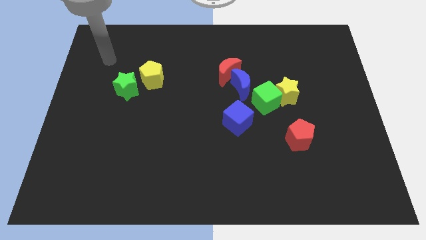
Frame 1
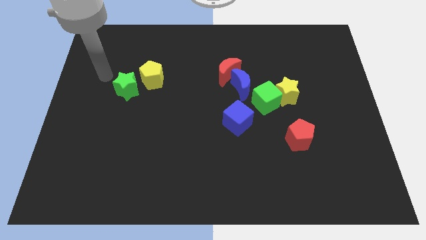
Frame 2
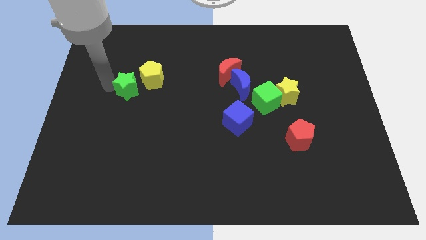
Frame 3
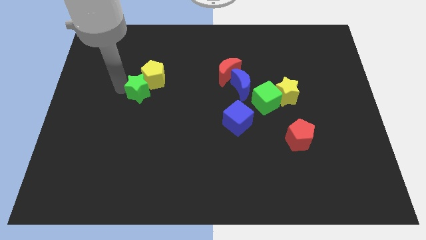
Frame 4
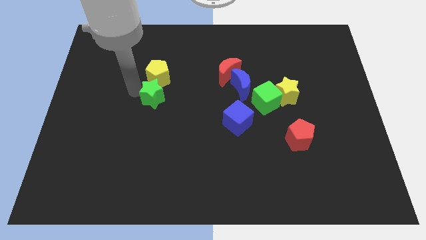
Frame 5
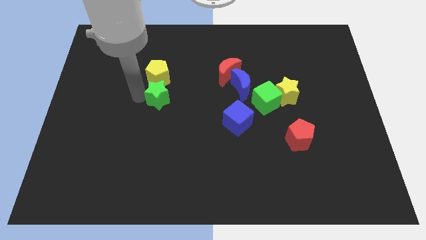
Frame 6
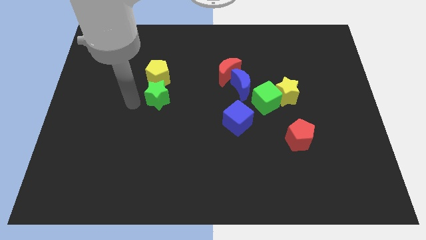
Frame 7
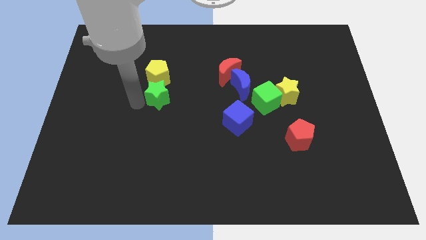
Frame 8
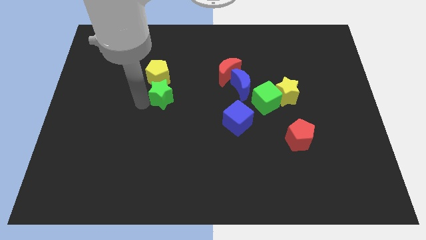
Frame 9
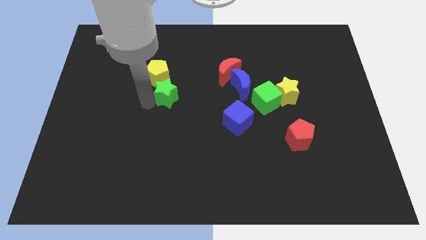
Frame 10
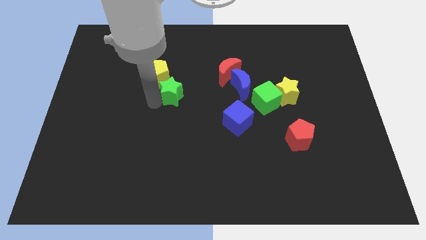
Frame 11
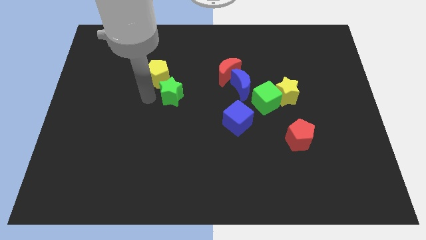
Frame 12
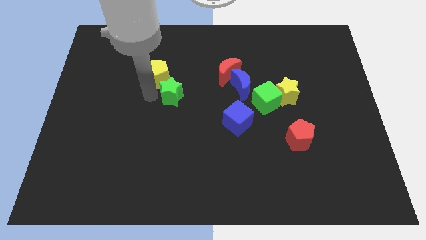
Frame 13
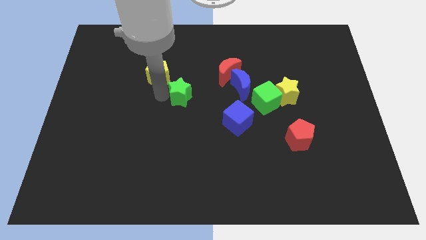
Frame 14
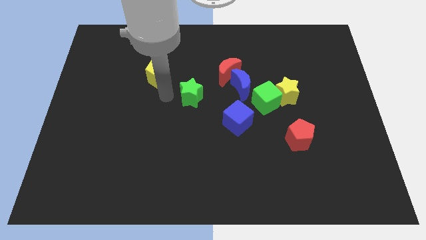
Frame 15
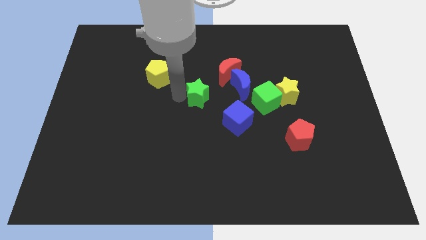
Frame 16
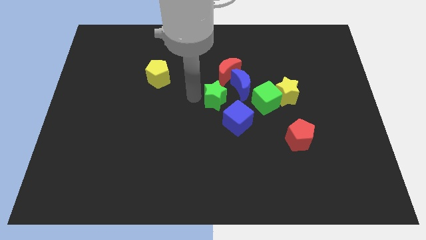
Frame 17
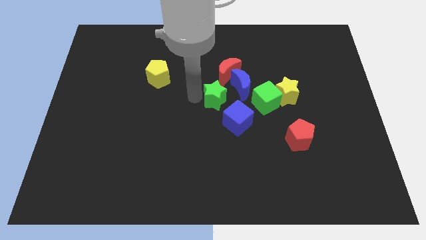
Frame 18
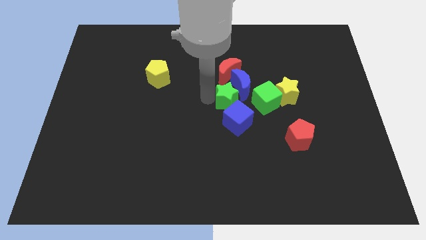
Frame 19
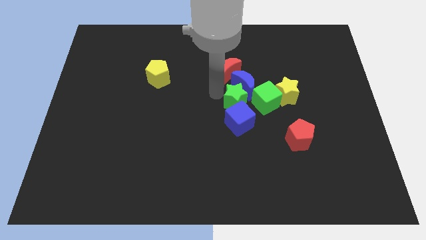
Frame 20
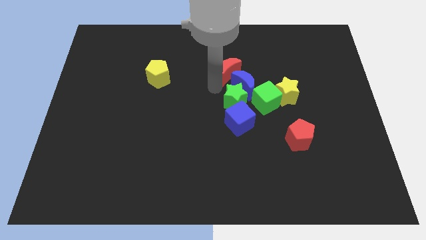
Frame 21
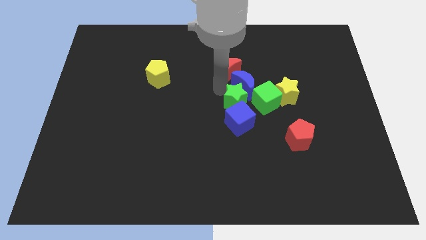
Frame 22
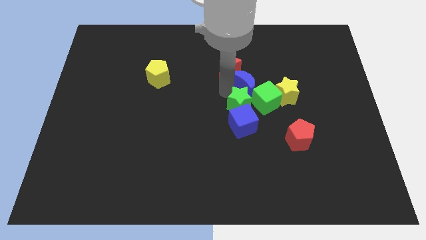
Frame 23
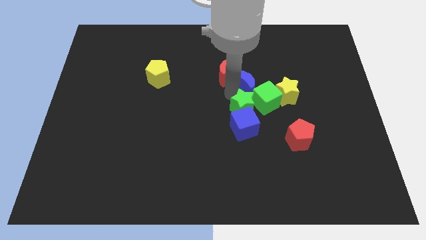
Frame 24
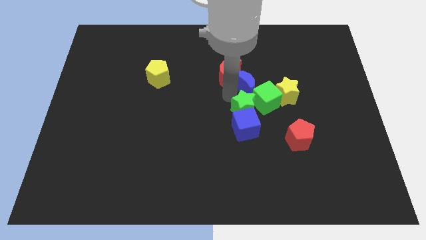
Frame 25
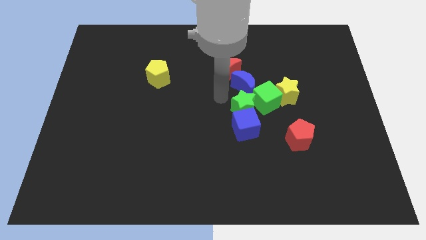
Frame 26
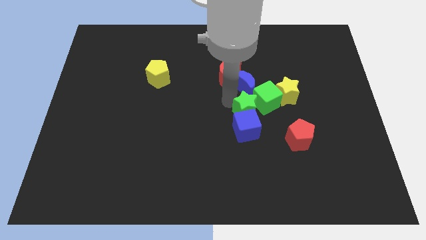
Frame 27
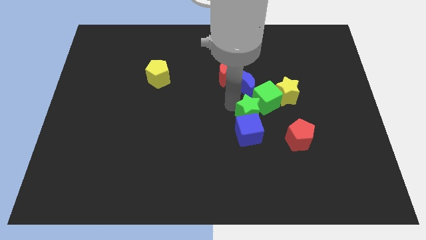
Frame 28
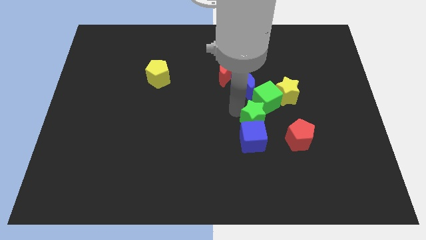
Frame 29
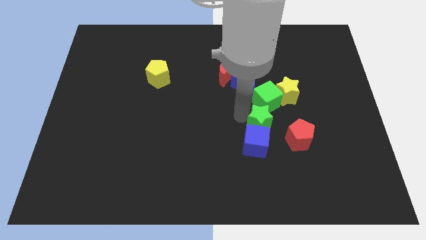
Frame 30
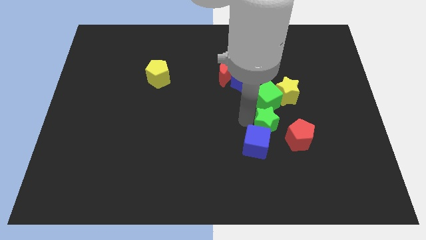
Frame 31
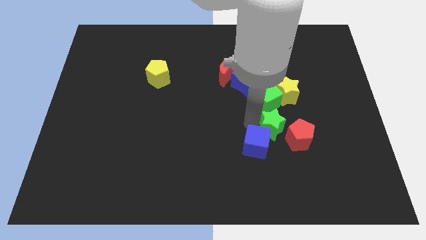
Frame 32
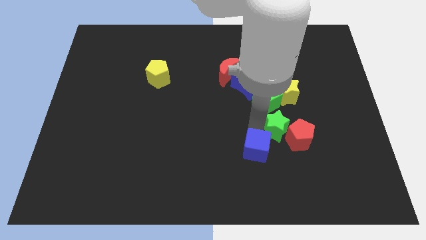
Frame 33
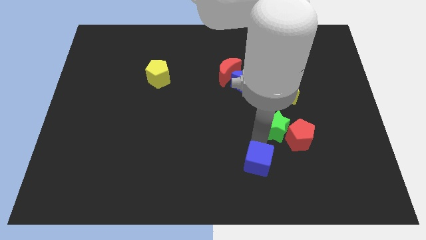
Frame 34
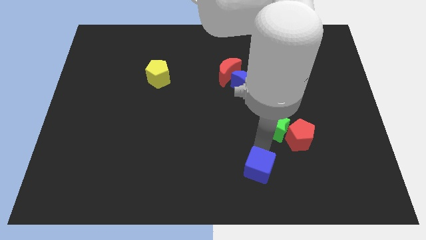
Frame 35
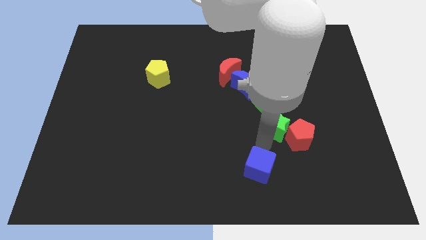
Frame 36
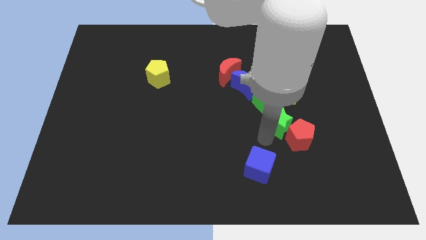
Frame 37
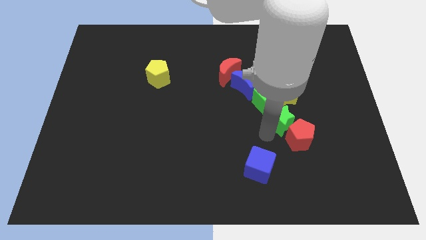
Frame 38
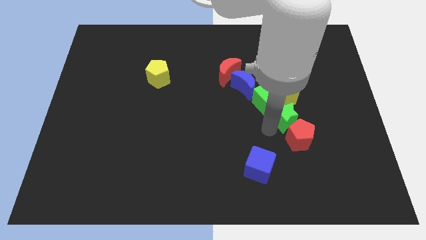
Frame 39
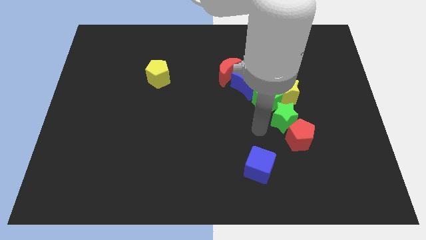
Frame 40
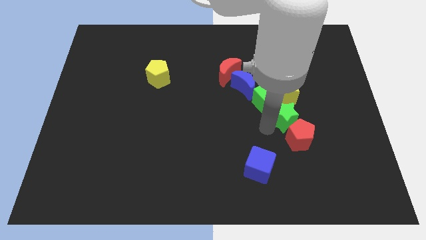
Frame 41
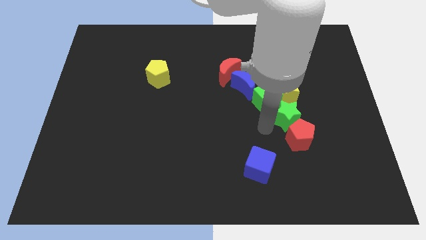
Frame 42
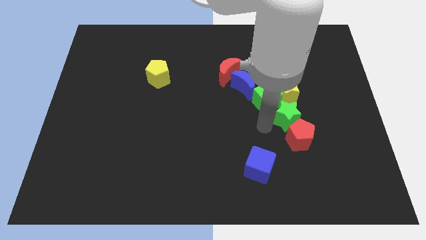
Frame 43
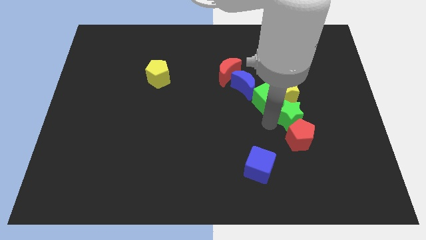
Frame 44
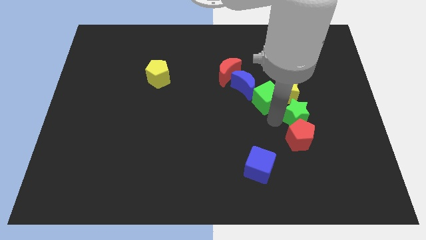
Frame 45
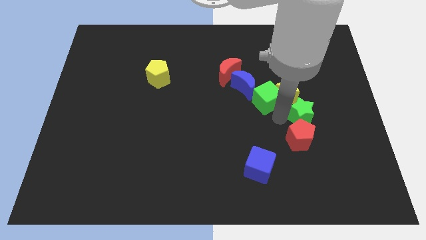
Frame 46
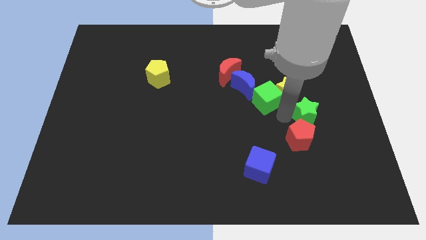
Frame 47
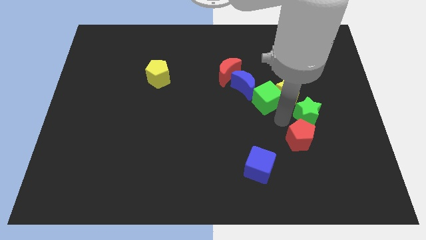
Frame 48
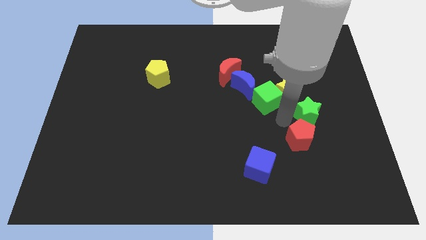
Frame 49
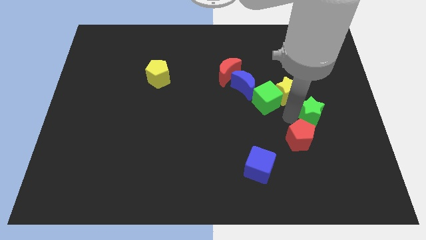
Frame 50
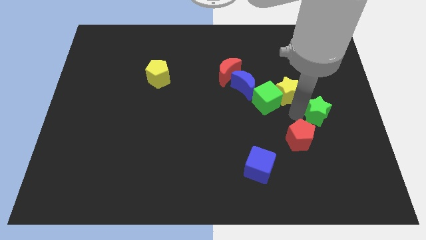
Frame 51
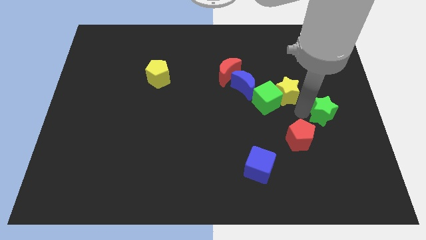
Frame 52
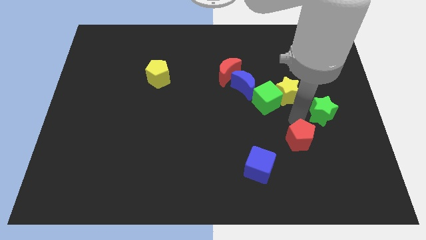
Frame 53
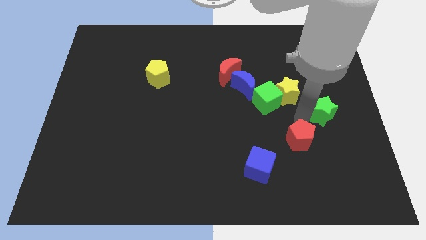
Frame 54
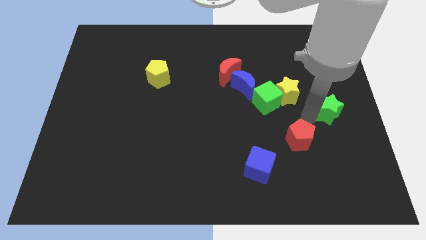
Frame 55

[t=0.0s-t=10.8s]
slide the green star to the right side of the board
